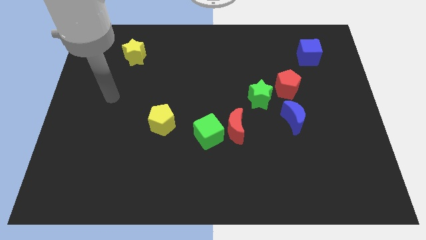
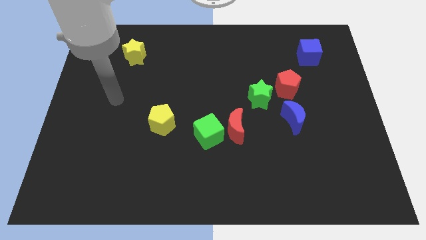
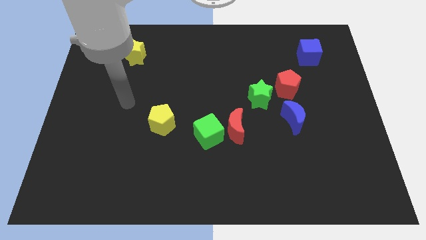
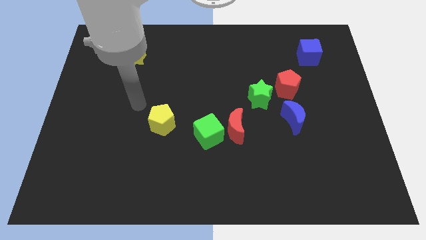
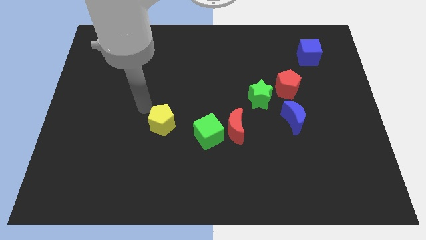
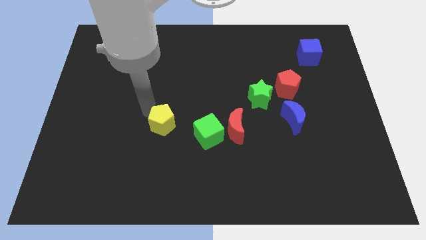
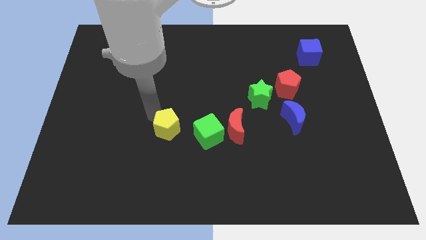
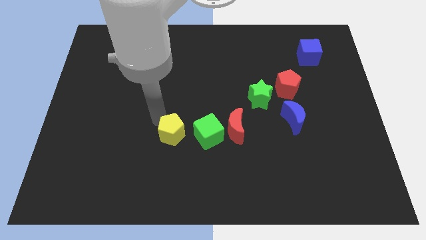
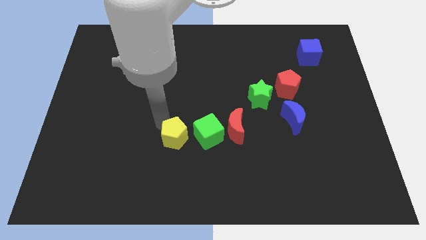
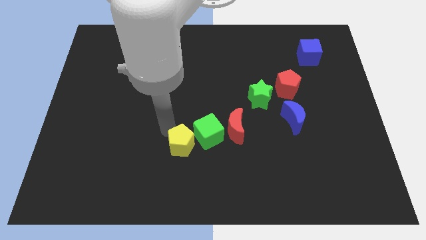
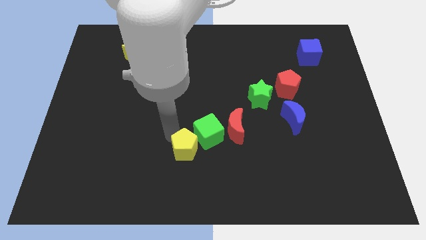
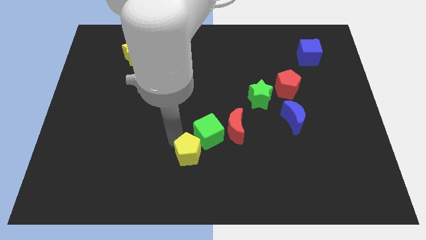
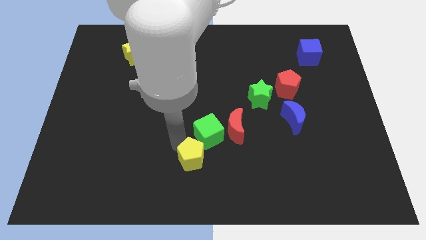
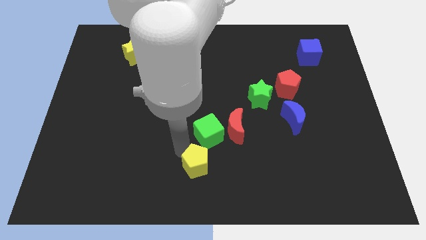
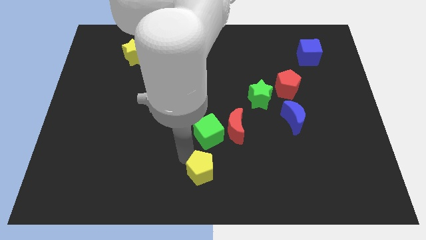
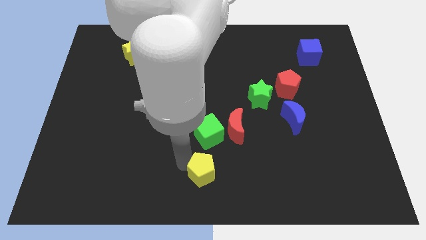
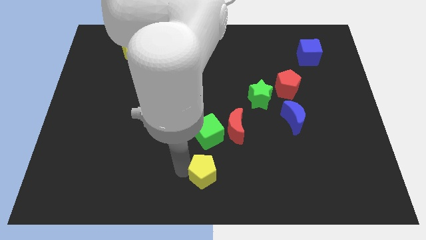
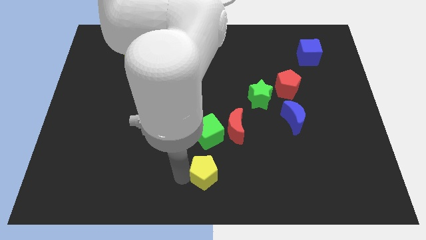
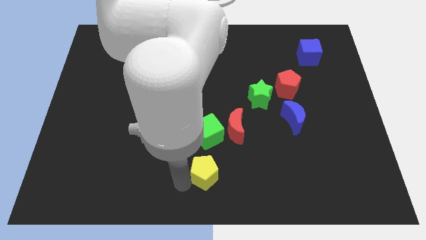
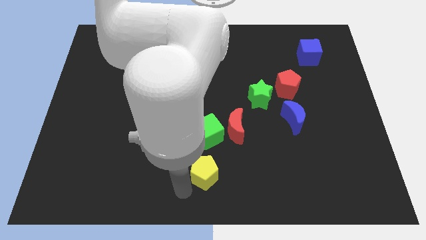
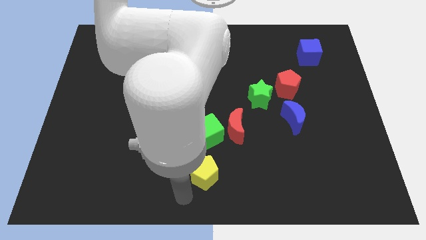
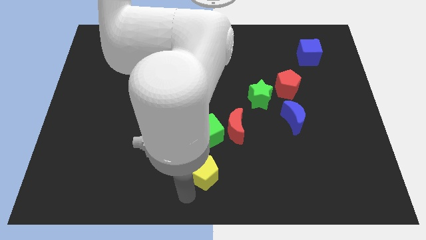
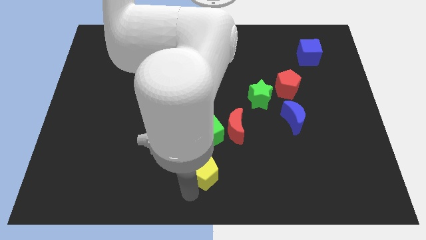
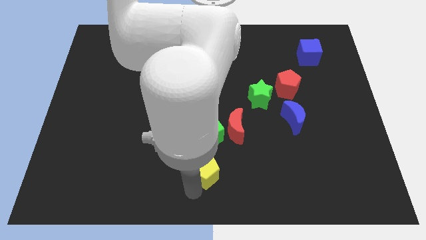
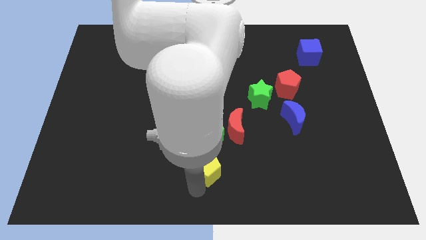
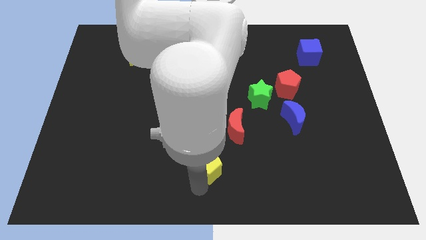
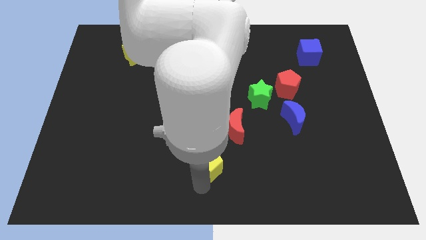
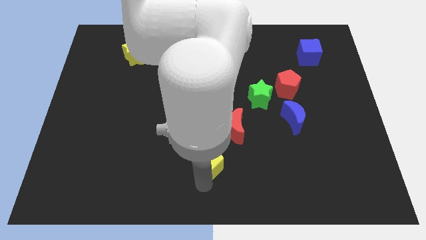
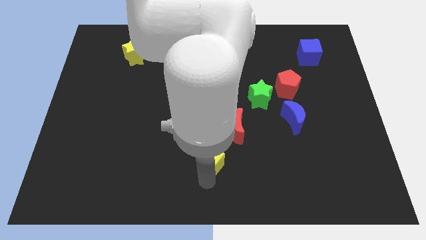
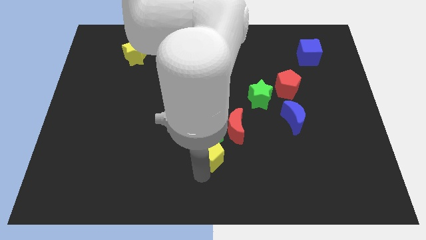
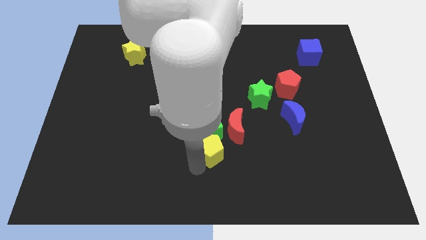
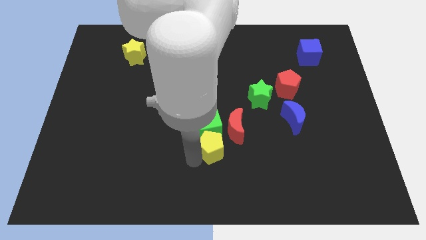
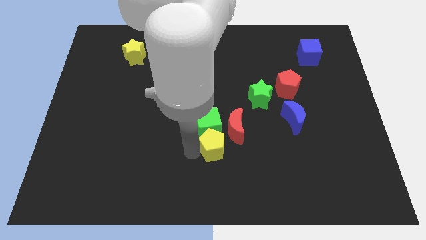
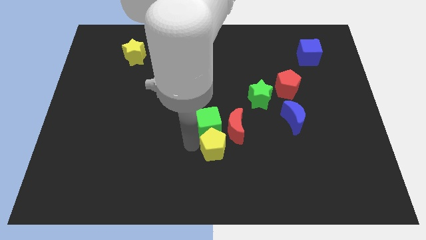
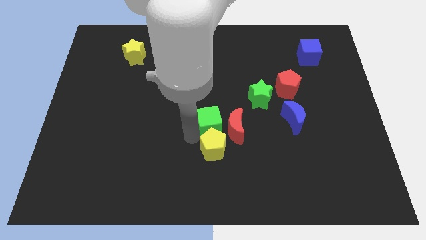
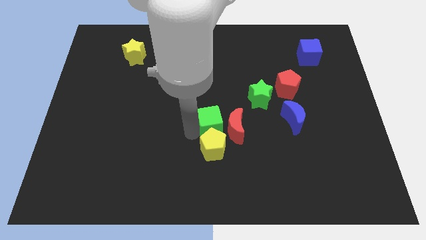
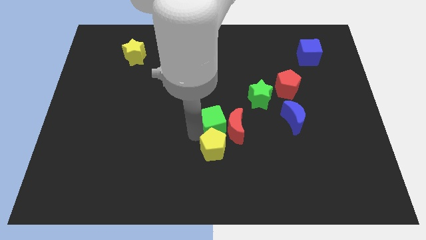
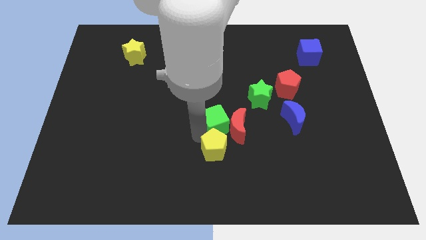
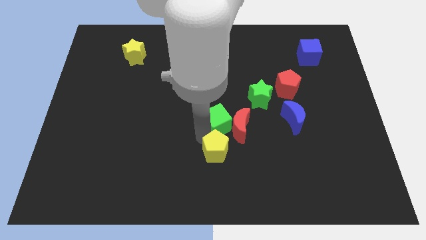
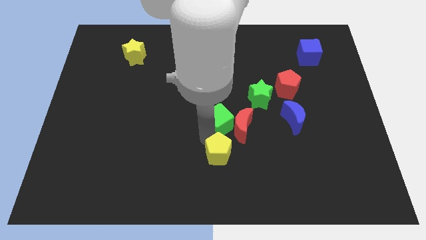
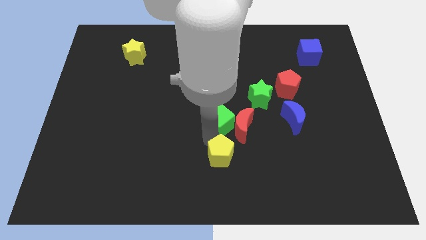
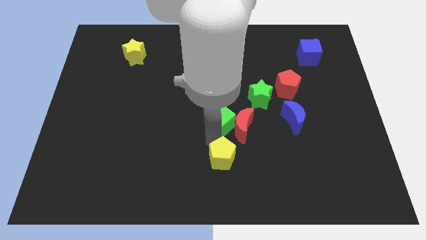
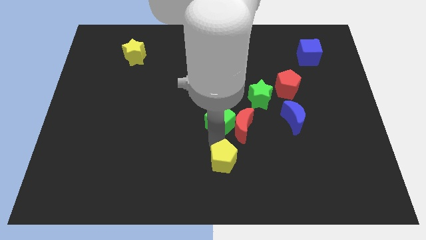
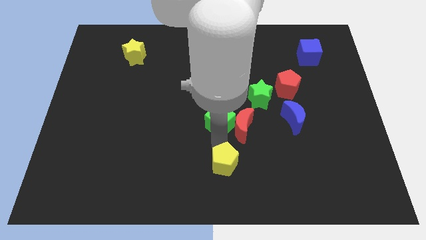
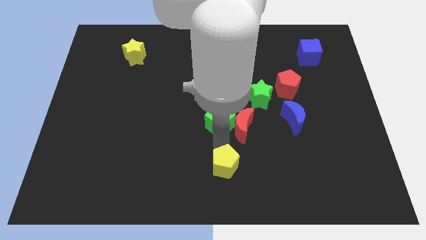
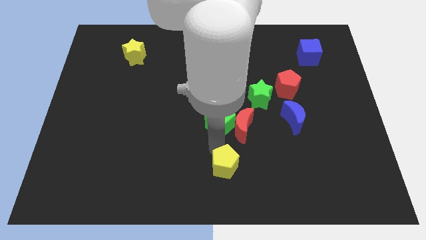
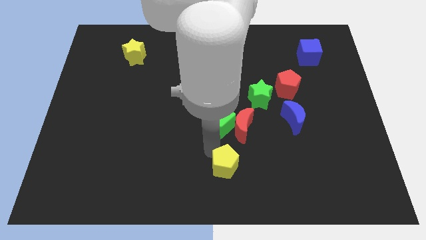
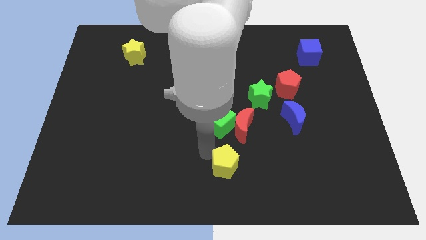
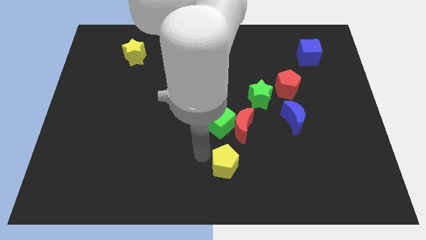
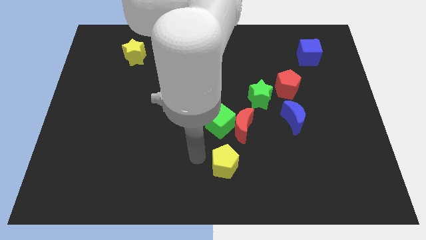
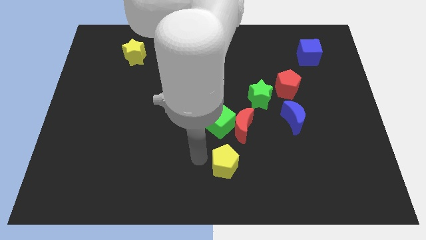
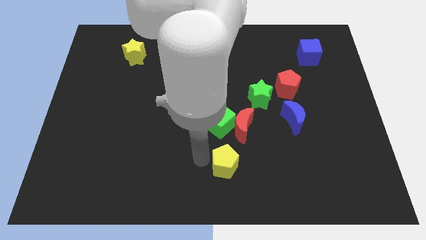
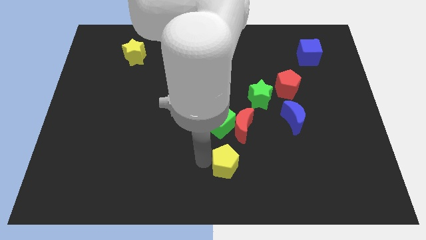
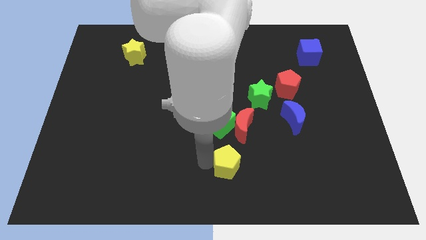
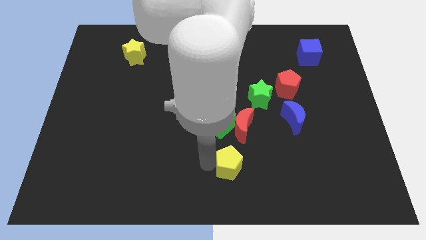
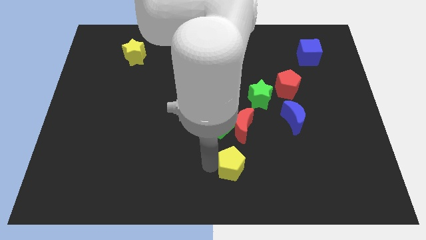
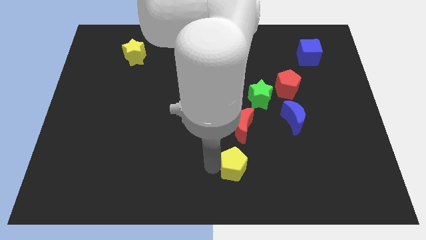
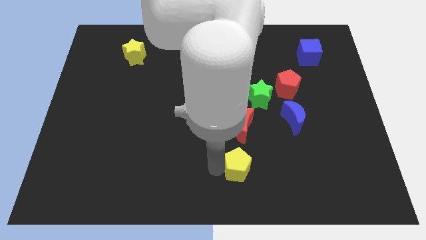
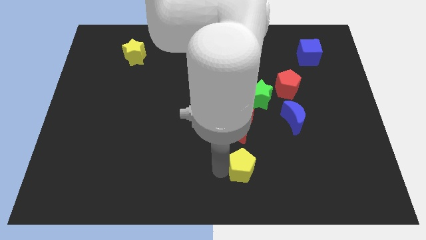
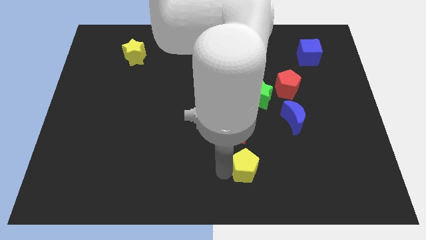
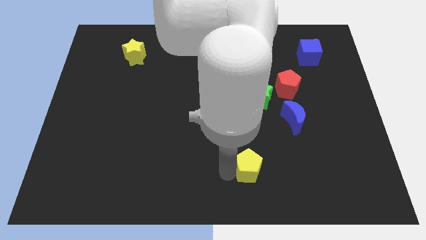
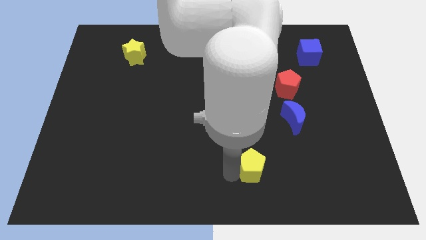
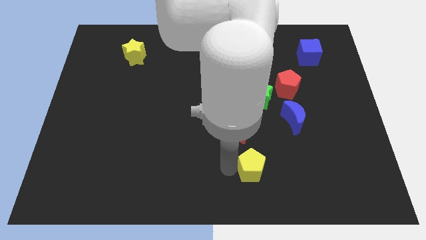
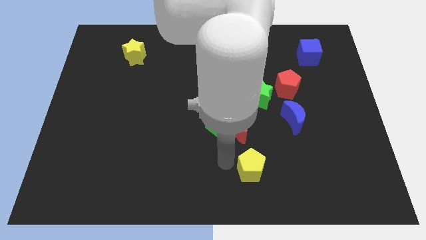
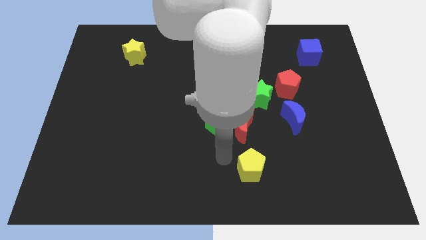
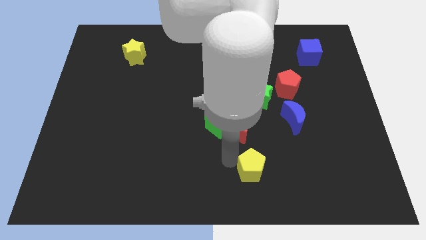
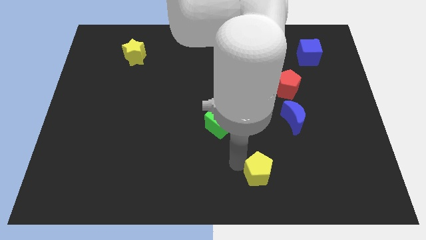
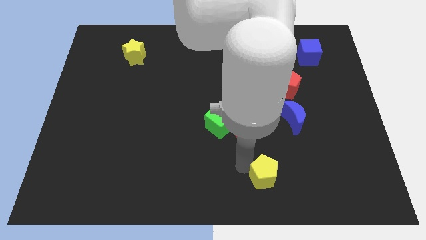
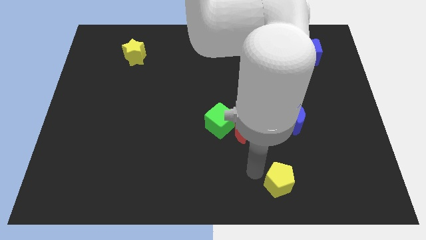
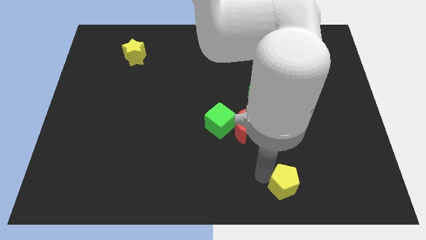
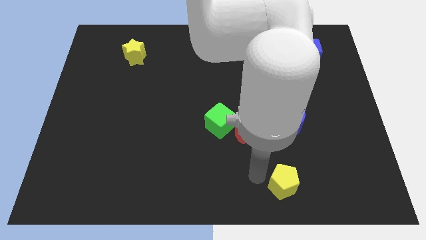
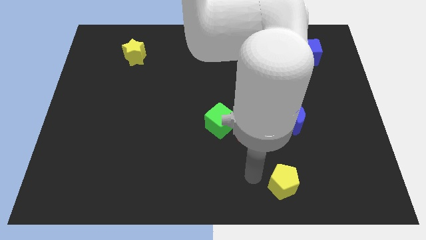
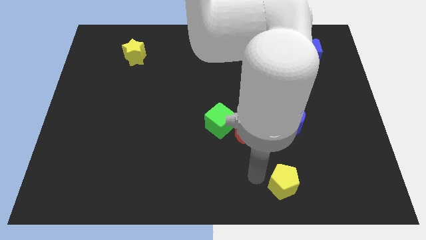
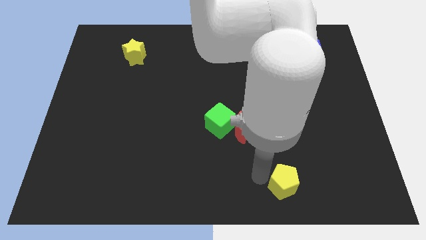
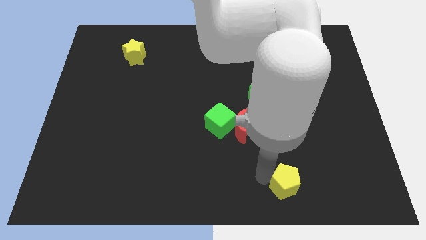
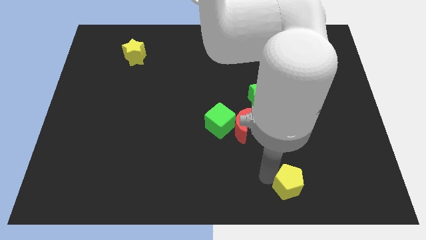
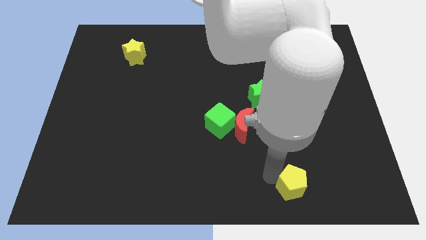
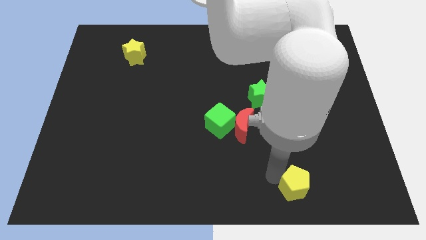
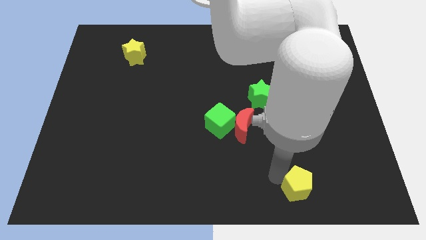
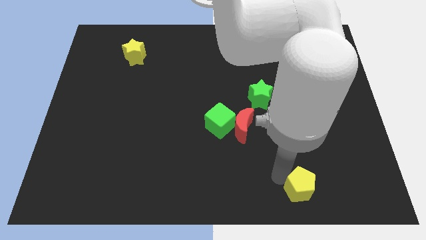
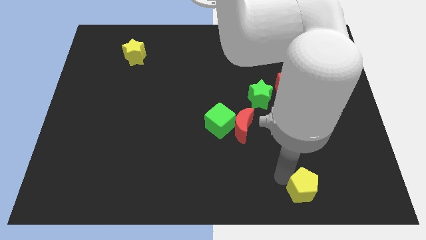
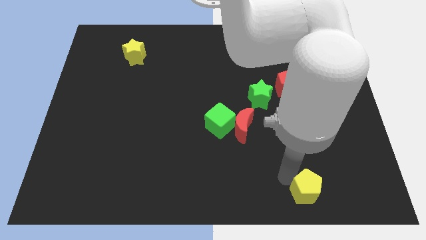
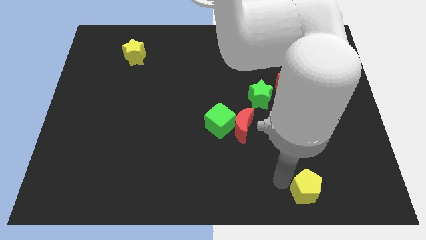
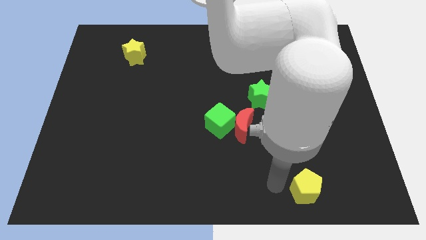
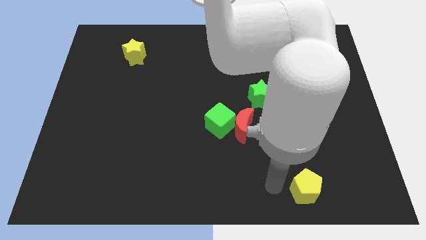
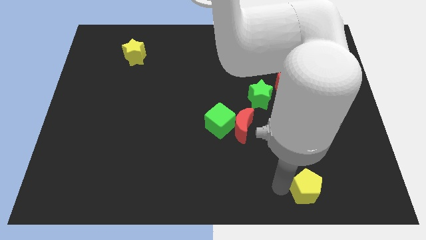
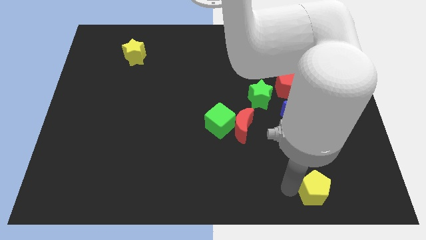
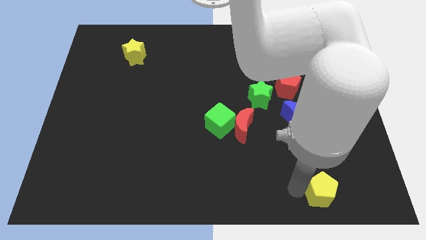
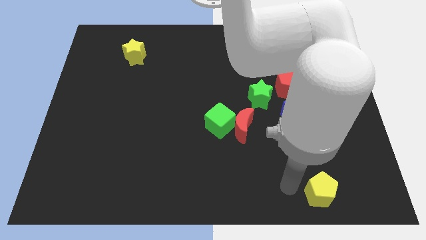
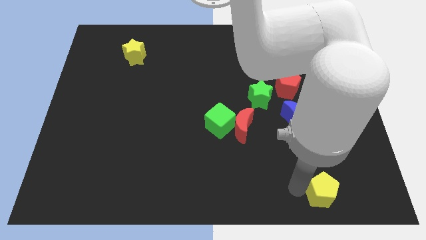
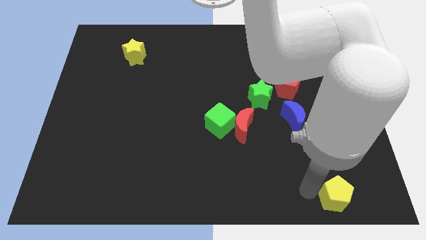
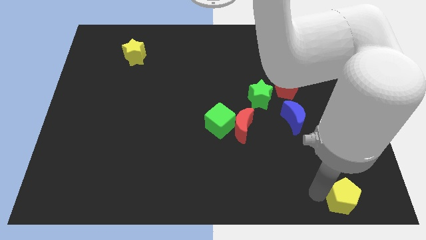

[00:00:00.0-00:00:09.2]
put the yellow pentagon to the bottom right
